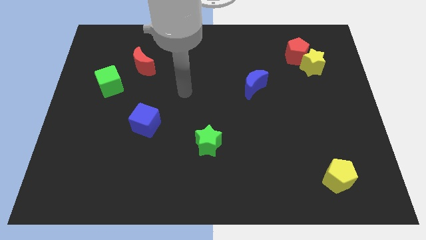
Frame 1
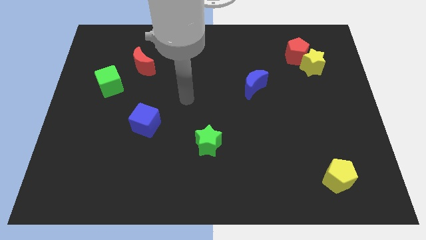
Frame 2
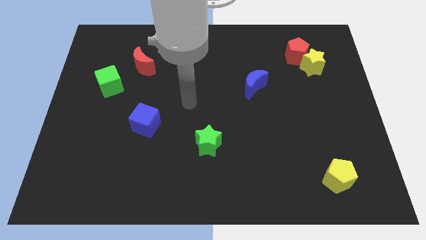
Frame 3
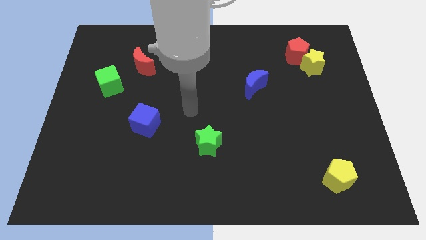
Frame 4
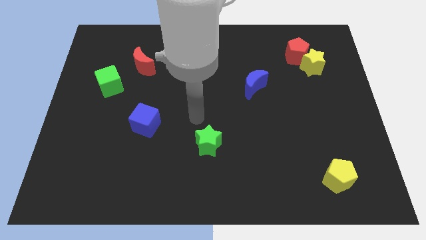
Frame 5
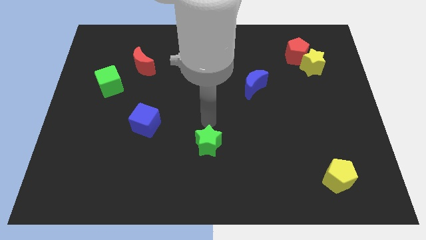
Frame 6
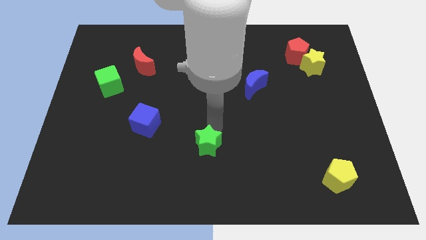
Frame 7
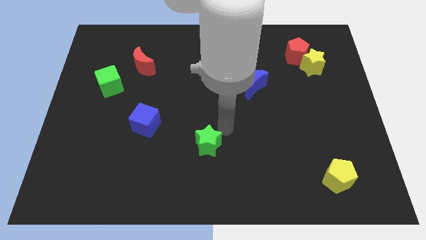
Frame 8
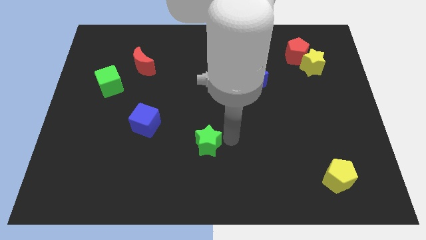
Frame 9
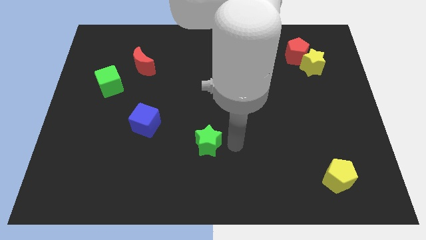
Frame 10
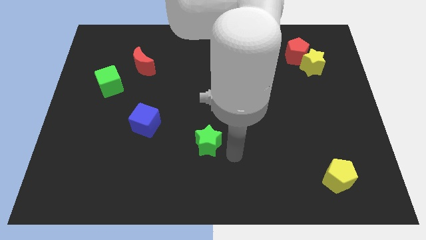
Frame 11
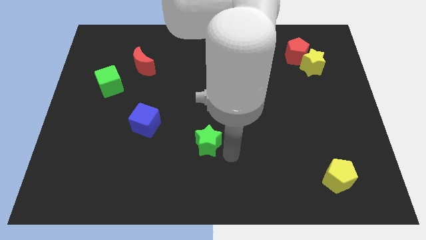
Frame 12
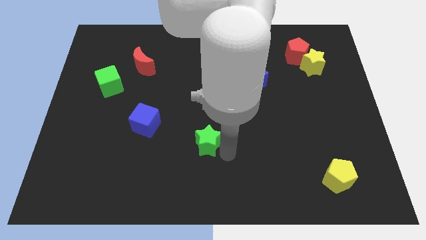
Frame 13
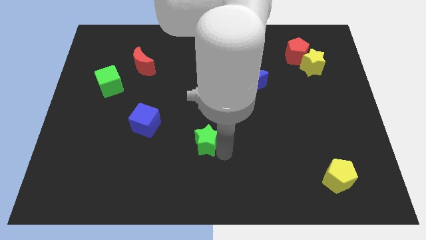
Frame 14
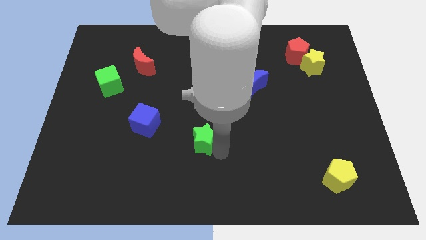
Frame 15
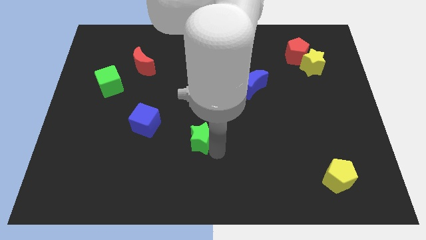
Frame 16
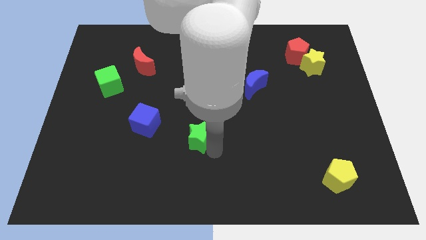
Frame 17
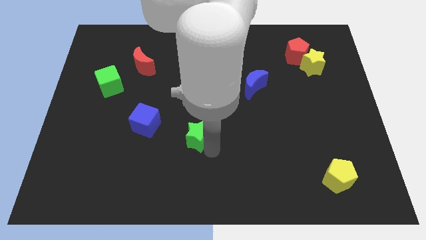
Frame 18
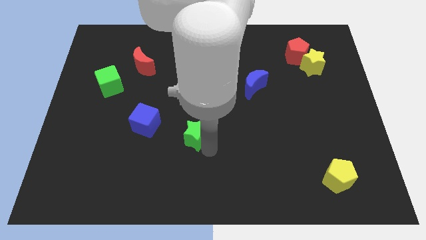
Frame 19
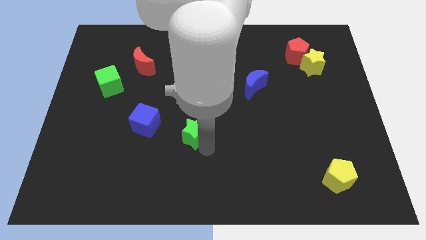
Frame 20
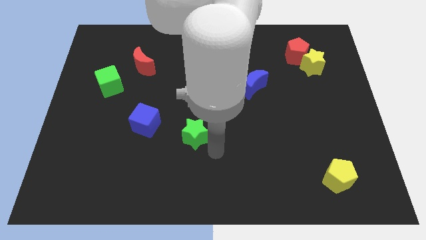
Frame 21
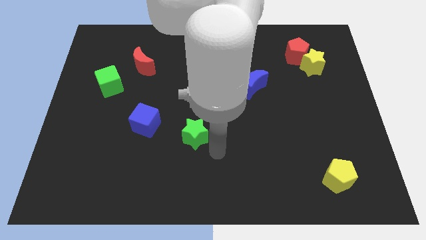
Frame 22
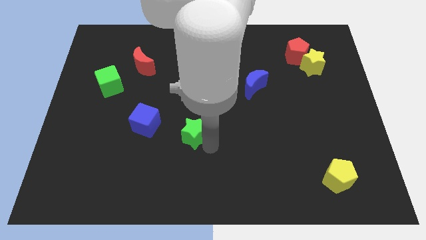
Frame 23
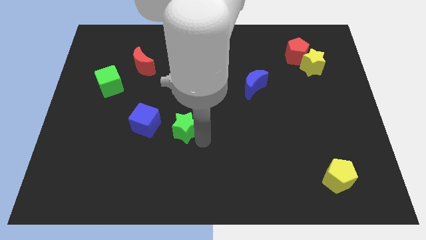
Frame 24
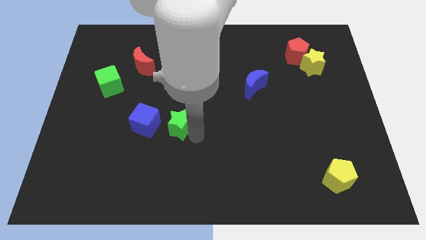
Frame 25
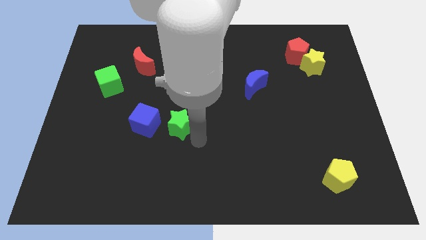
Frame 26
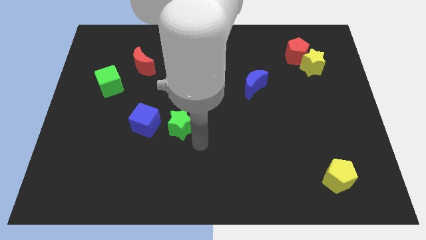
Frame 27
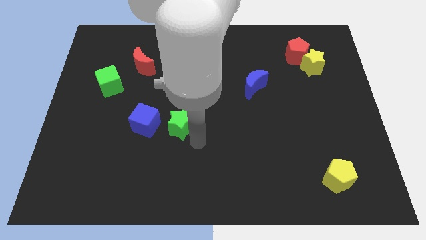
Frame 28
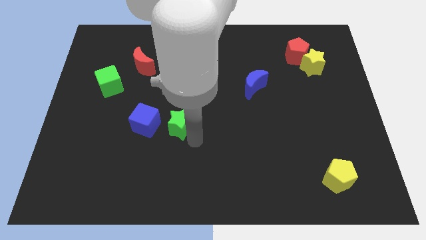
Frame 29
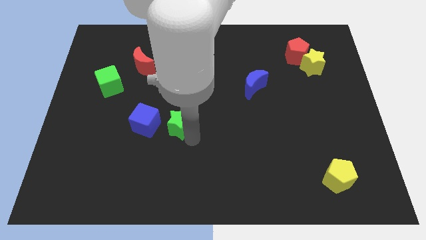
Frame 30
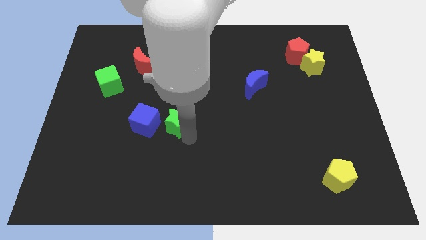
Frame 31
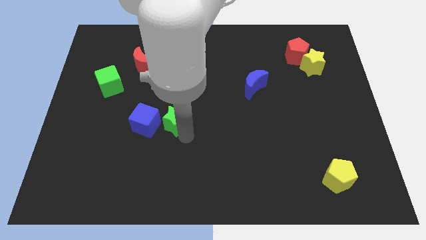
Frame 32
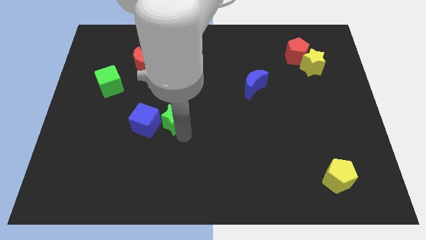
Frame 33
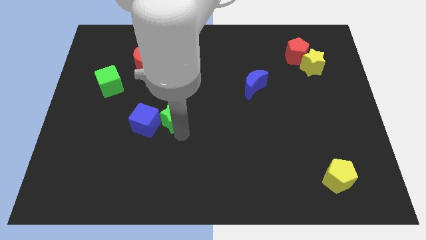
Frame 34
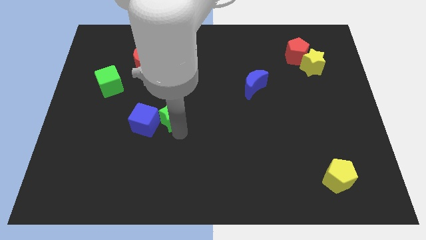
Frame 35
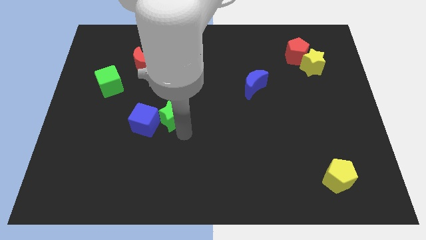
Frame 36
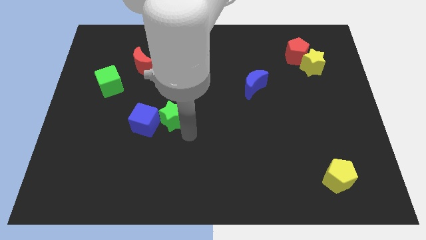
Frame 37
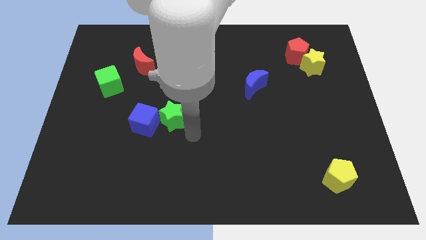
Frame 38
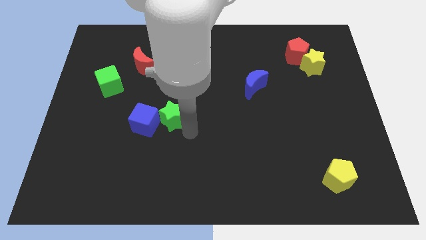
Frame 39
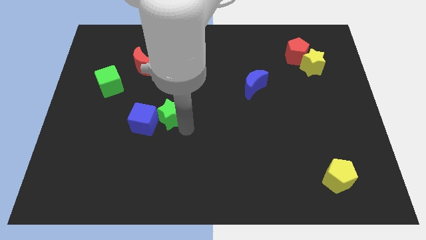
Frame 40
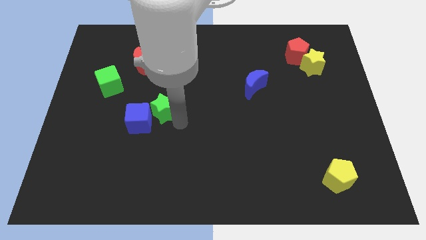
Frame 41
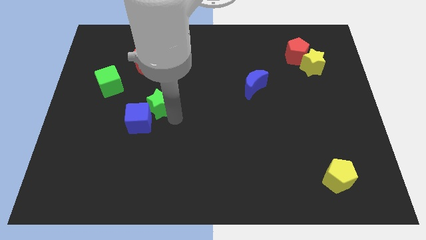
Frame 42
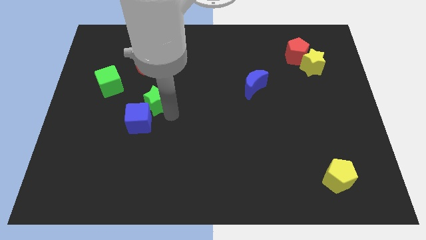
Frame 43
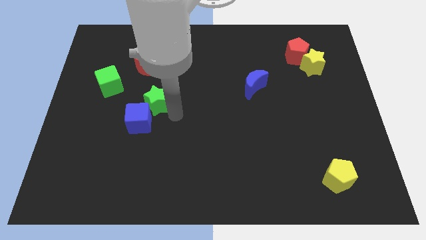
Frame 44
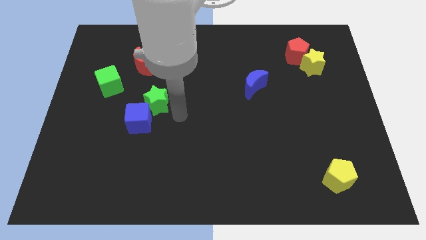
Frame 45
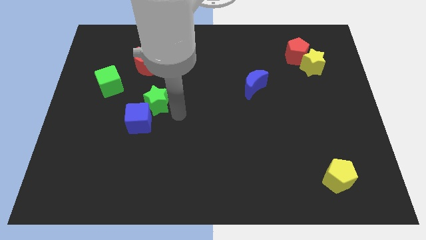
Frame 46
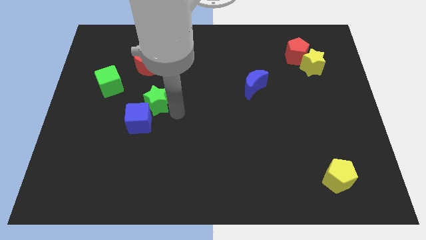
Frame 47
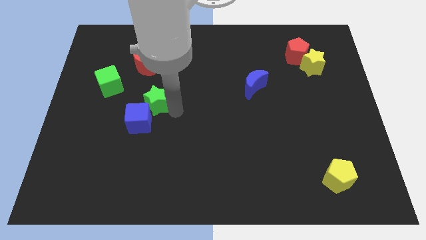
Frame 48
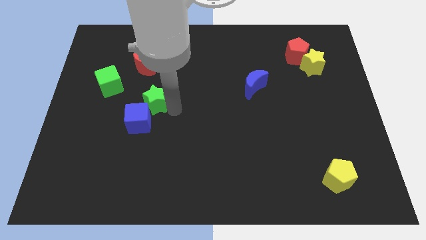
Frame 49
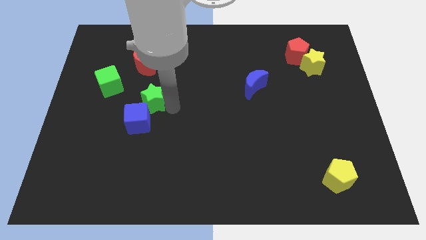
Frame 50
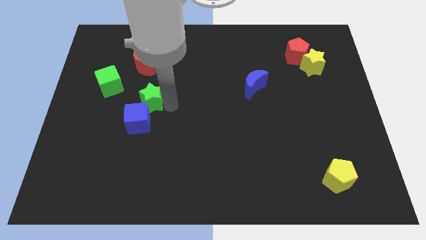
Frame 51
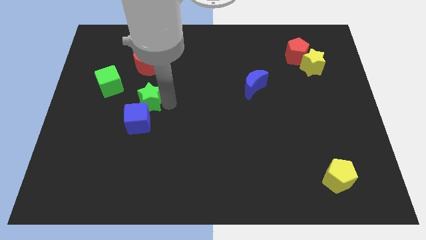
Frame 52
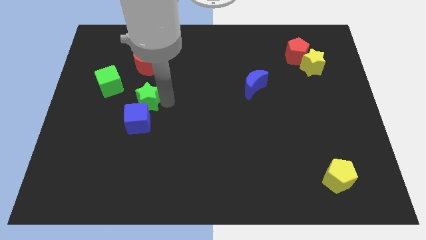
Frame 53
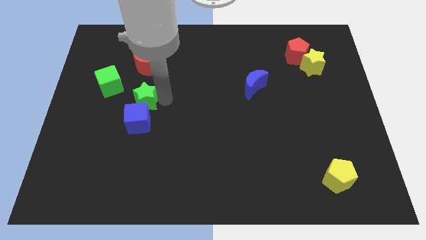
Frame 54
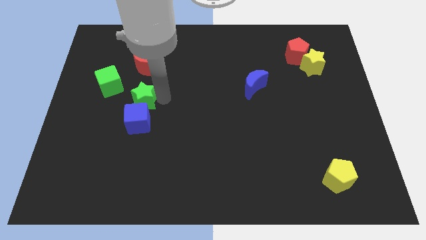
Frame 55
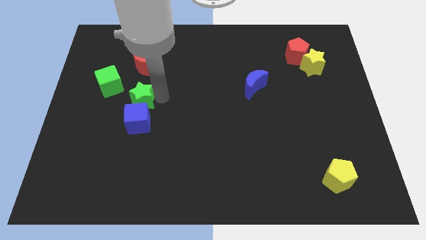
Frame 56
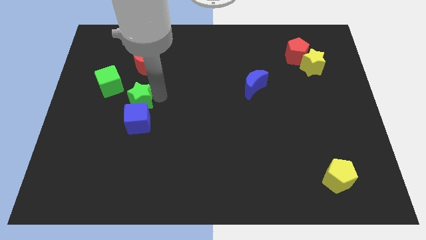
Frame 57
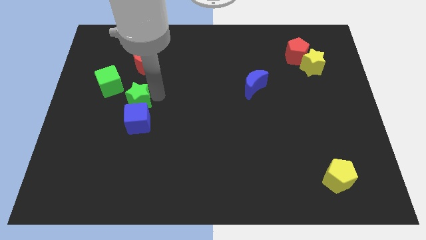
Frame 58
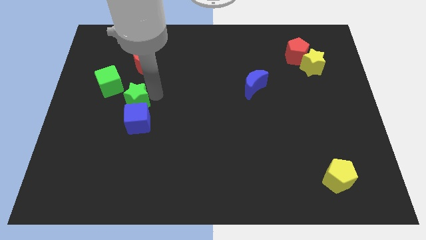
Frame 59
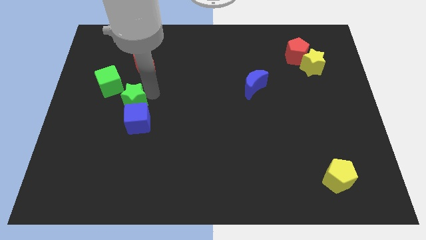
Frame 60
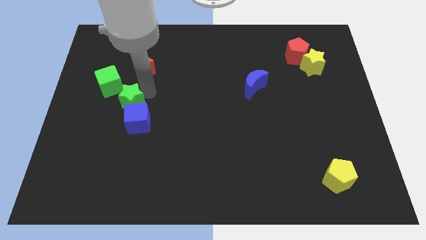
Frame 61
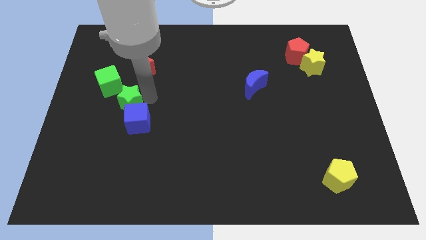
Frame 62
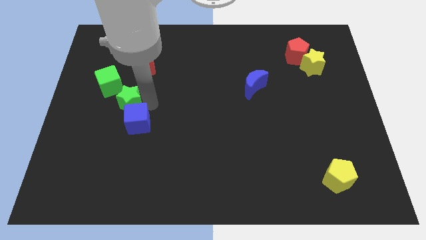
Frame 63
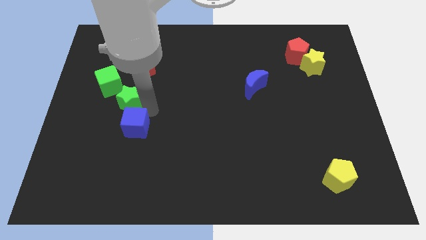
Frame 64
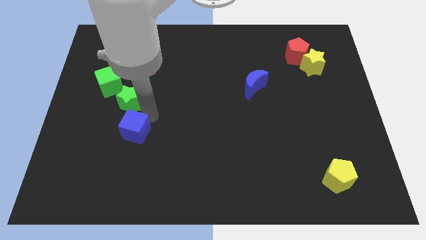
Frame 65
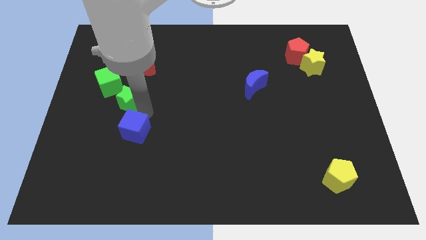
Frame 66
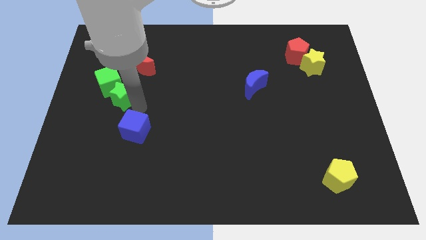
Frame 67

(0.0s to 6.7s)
move the green star to the green cube
